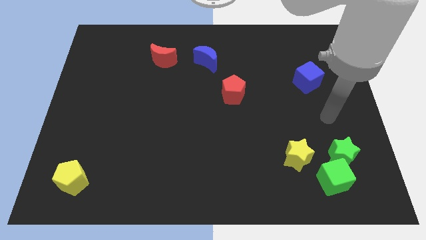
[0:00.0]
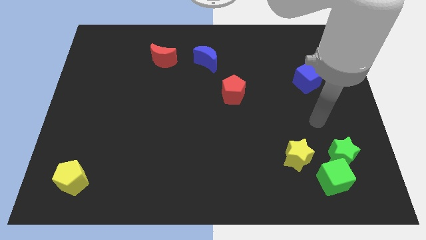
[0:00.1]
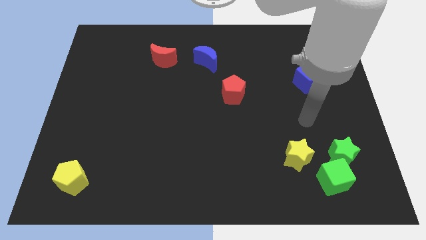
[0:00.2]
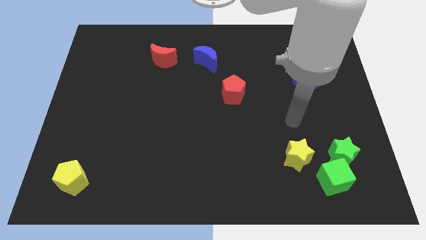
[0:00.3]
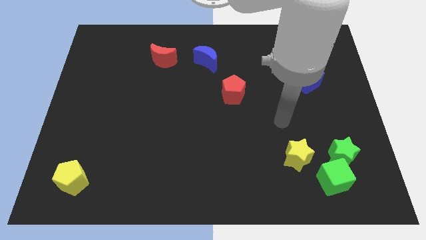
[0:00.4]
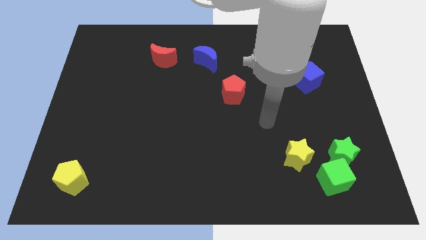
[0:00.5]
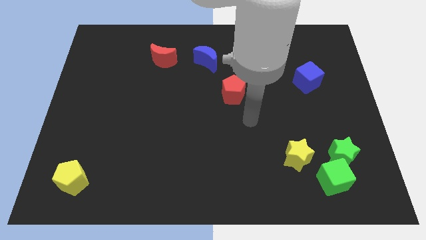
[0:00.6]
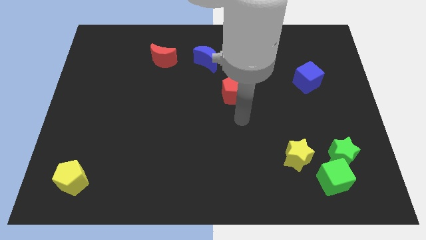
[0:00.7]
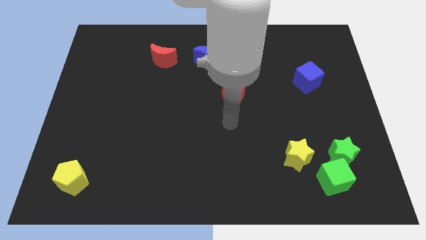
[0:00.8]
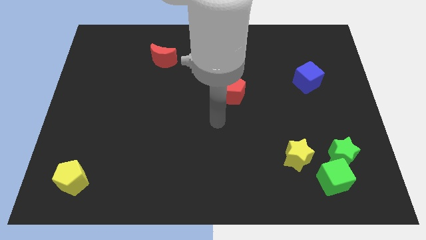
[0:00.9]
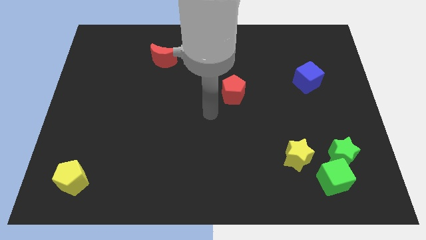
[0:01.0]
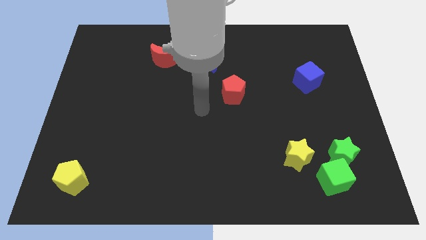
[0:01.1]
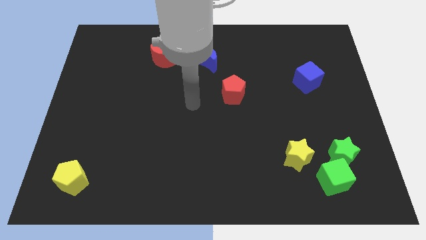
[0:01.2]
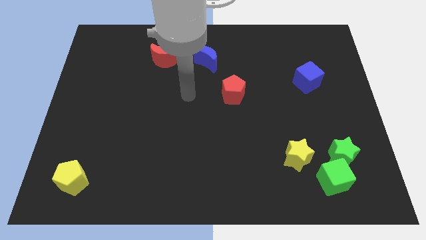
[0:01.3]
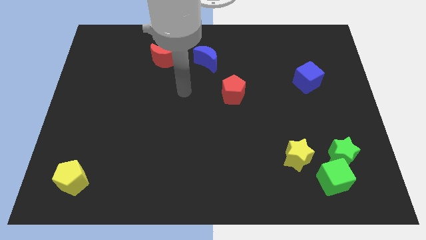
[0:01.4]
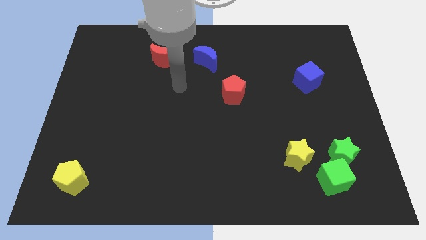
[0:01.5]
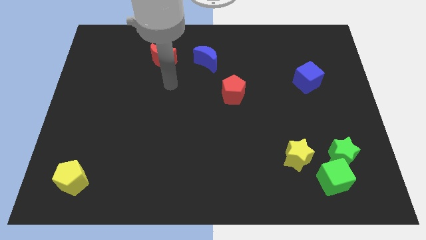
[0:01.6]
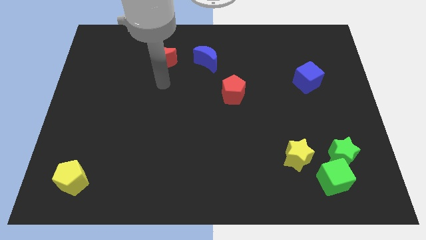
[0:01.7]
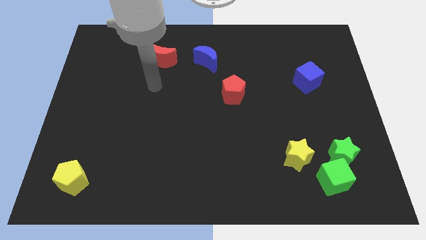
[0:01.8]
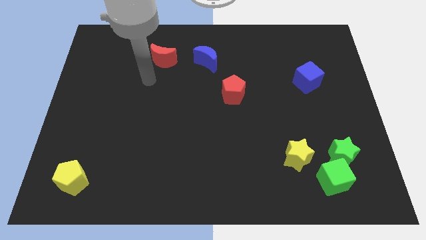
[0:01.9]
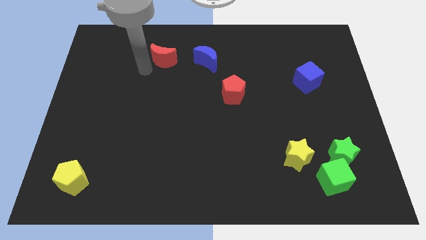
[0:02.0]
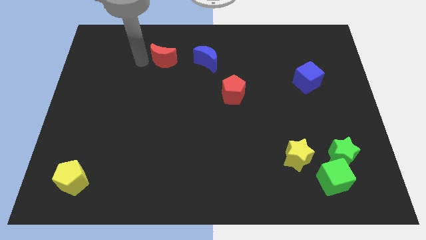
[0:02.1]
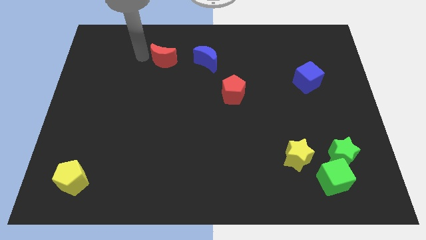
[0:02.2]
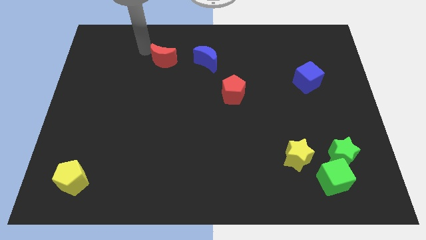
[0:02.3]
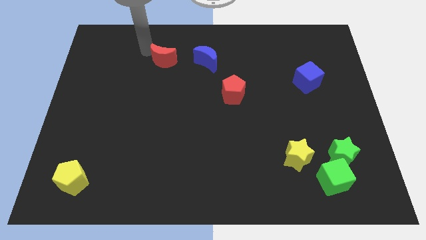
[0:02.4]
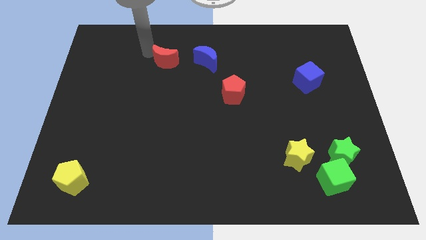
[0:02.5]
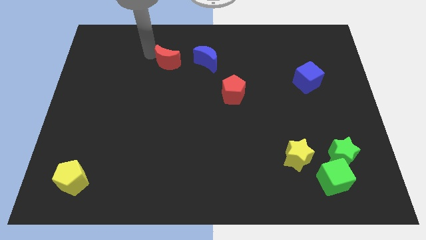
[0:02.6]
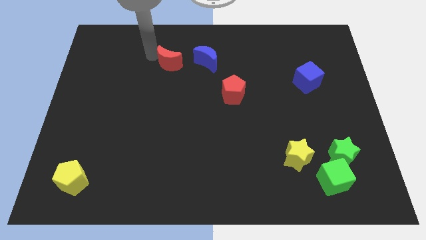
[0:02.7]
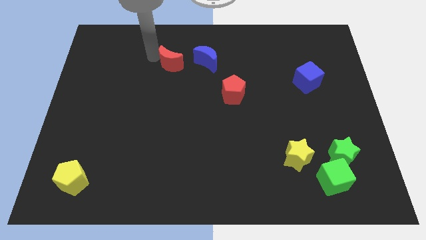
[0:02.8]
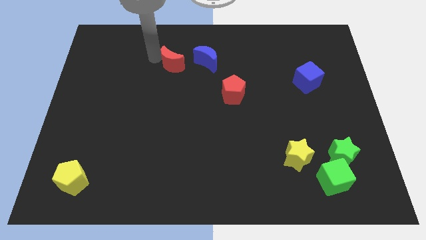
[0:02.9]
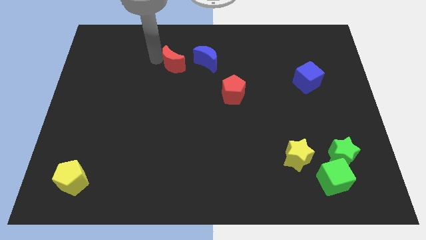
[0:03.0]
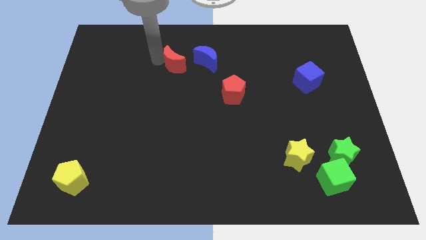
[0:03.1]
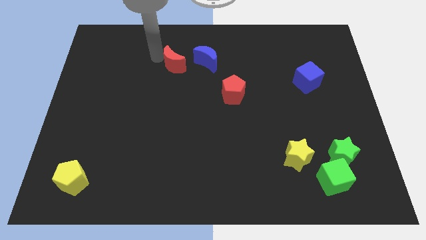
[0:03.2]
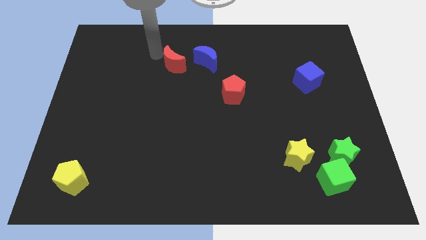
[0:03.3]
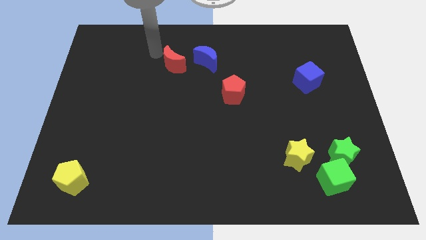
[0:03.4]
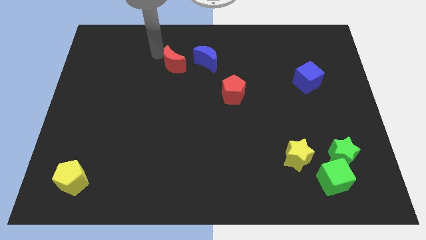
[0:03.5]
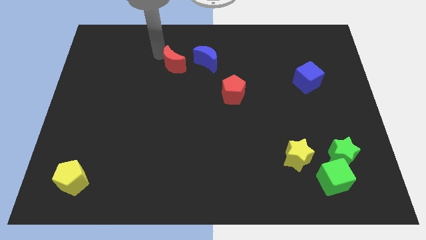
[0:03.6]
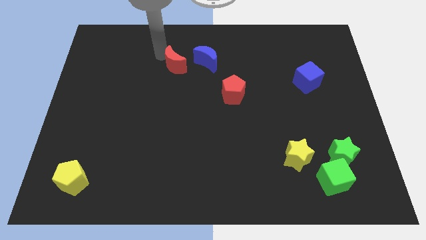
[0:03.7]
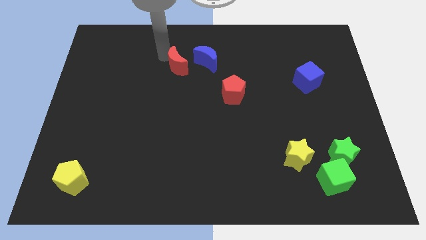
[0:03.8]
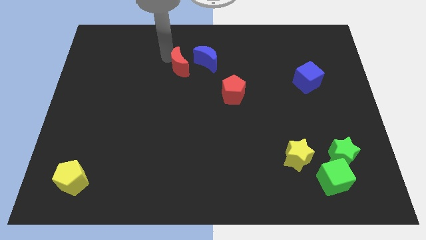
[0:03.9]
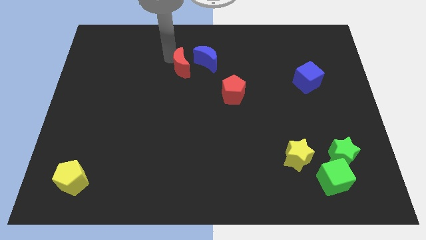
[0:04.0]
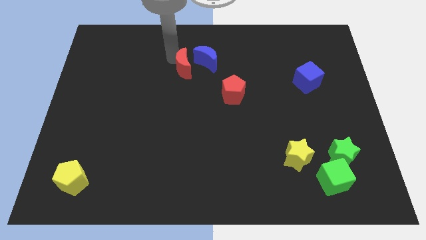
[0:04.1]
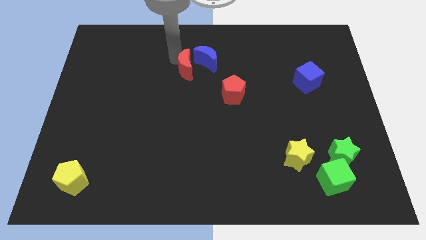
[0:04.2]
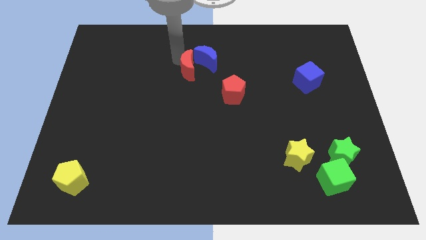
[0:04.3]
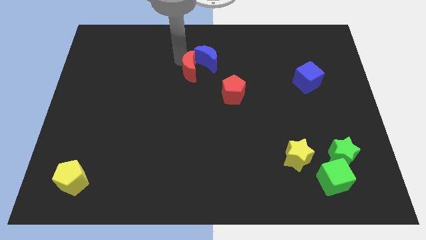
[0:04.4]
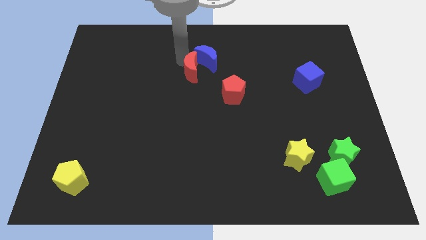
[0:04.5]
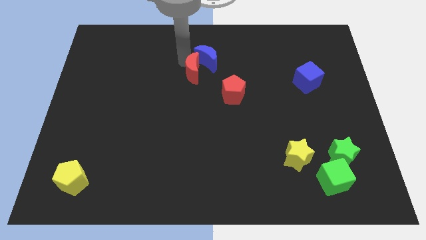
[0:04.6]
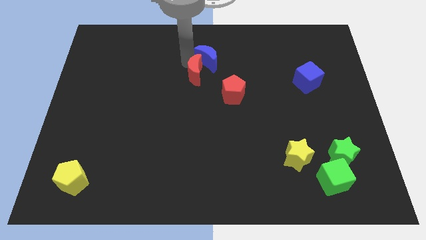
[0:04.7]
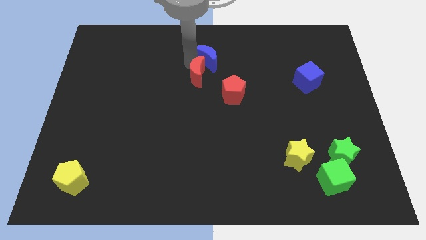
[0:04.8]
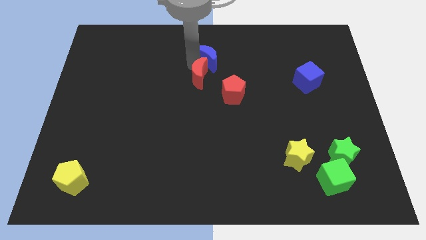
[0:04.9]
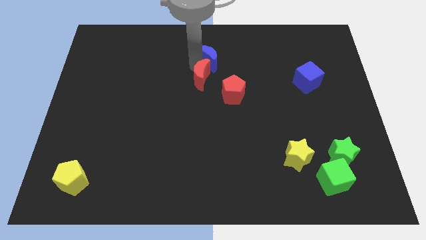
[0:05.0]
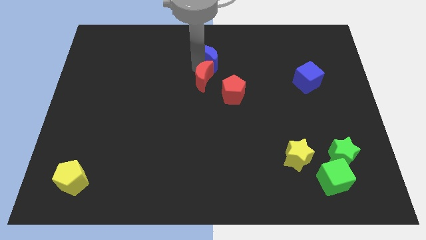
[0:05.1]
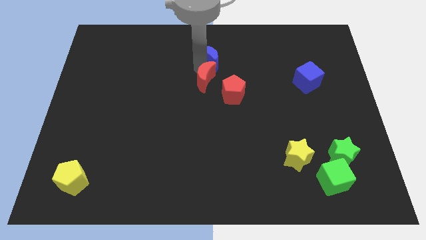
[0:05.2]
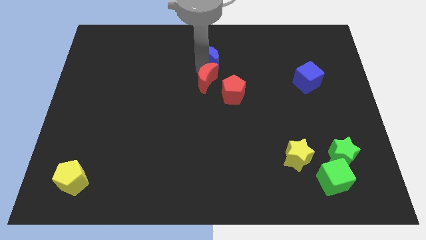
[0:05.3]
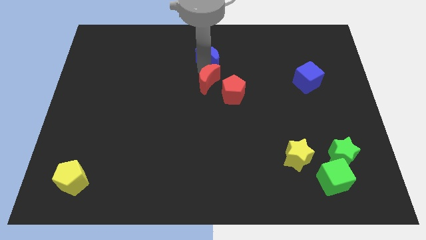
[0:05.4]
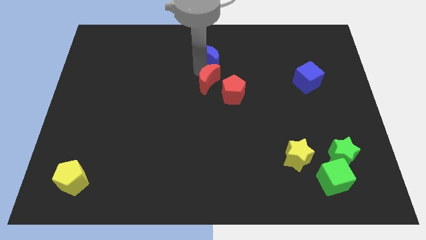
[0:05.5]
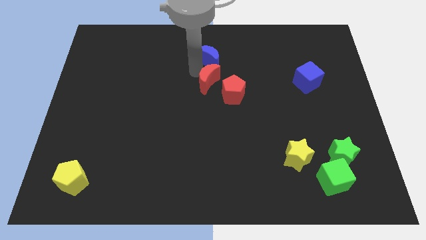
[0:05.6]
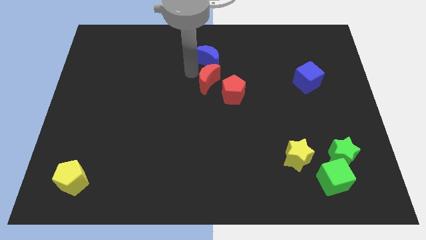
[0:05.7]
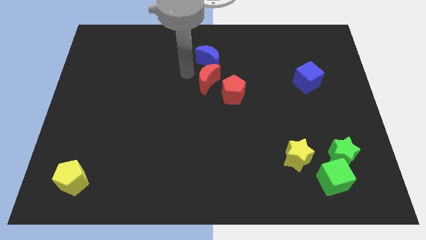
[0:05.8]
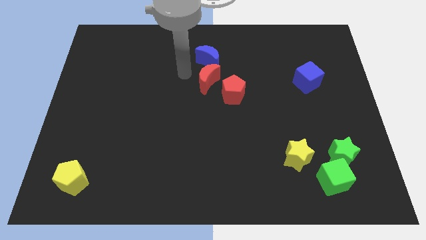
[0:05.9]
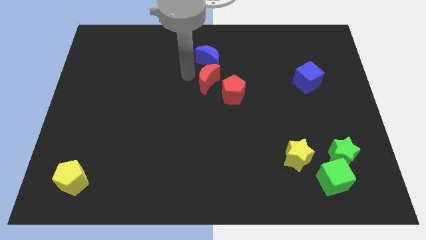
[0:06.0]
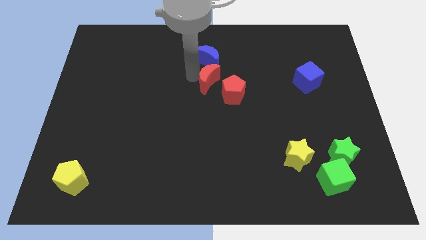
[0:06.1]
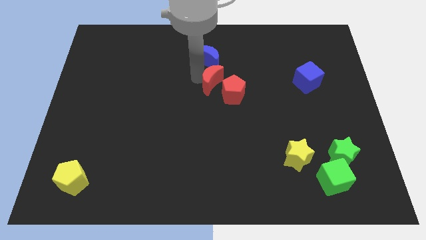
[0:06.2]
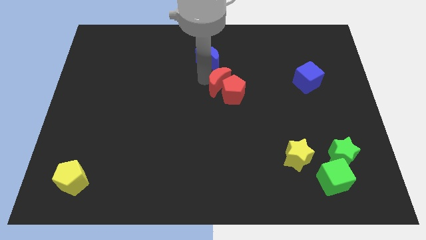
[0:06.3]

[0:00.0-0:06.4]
move the red moon close to the red pentagon

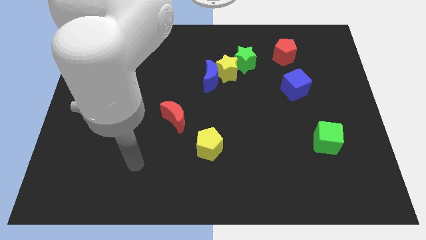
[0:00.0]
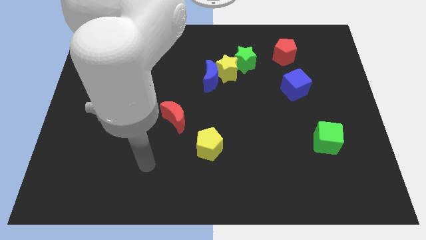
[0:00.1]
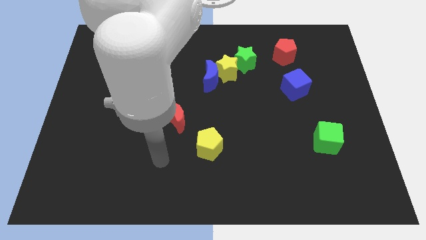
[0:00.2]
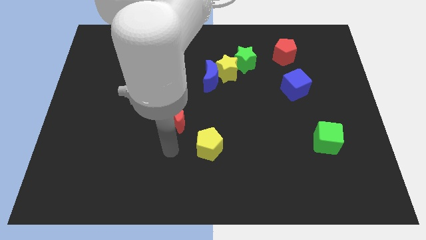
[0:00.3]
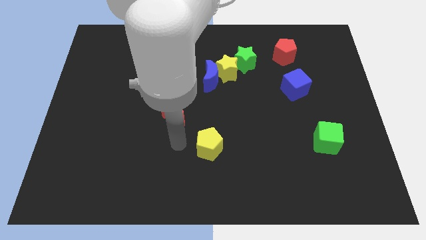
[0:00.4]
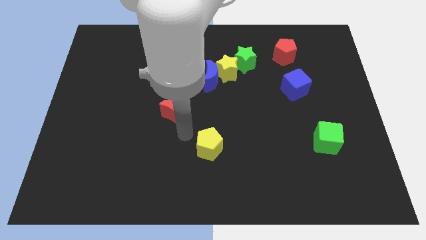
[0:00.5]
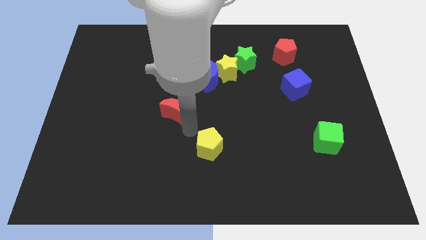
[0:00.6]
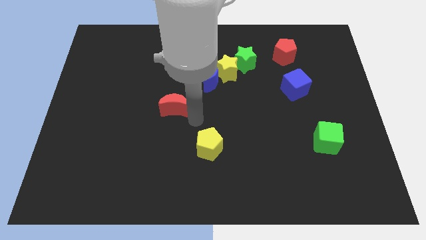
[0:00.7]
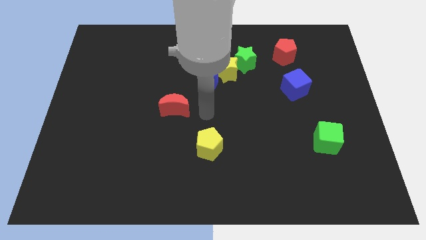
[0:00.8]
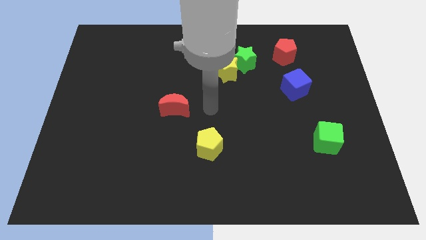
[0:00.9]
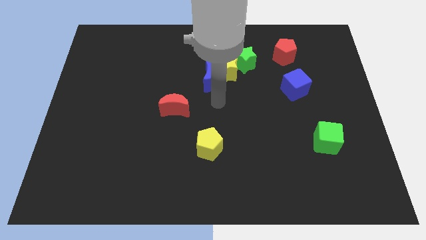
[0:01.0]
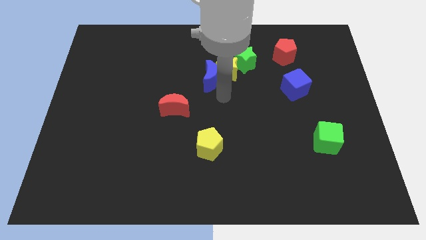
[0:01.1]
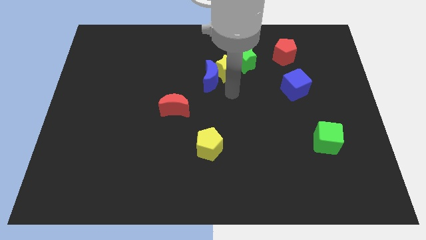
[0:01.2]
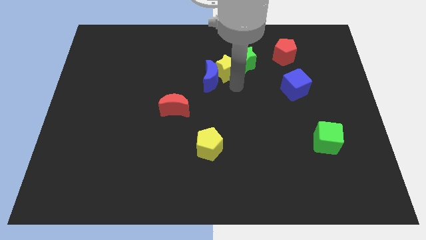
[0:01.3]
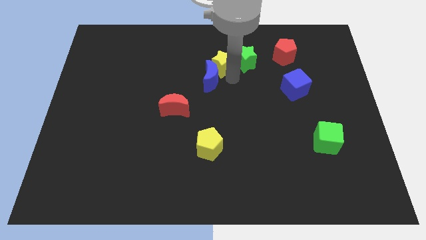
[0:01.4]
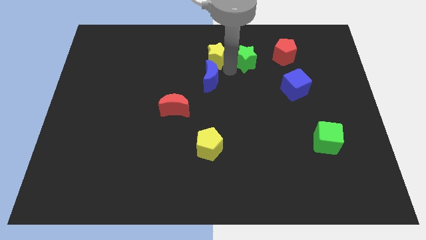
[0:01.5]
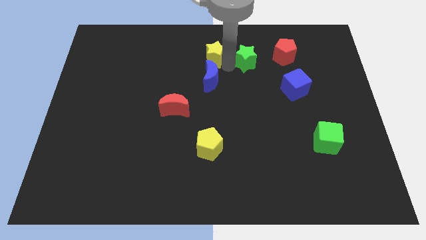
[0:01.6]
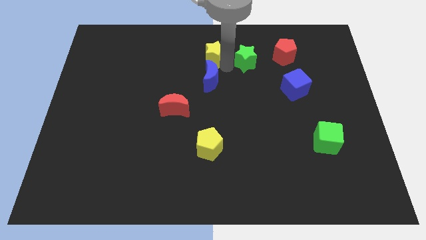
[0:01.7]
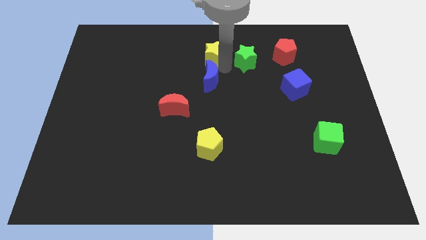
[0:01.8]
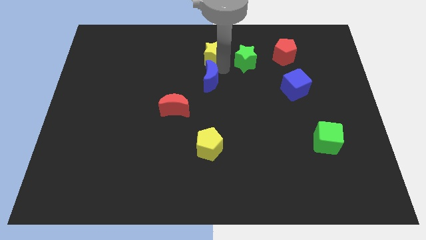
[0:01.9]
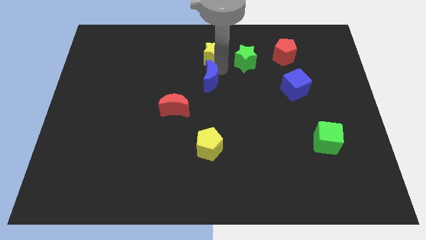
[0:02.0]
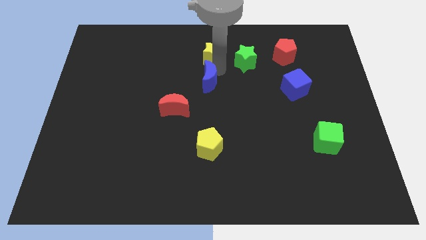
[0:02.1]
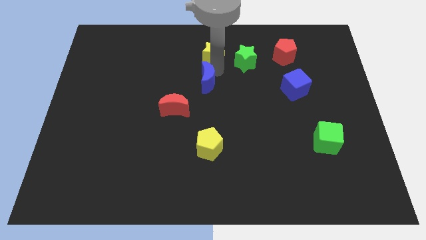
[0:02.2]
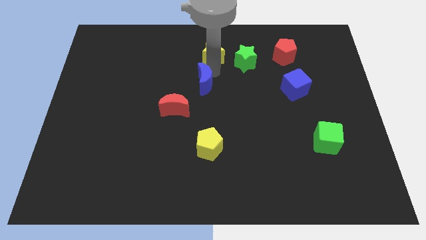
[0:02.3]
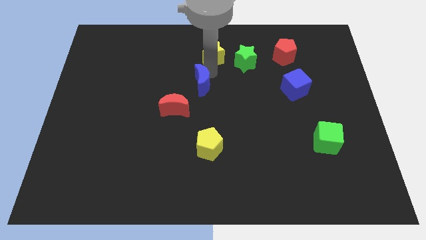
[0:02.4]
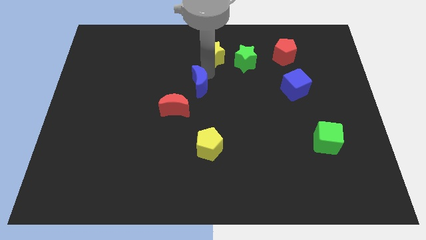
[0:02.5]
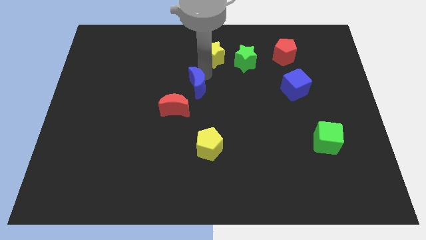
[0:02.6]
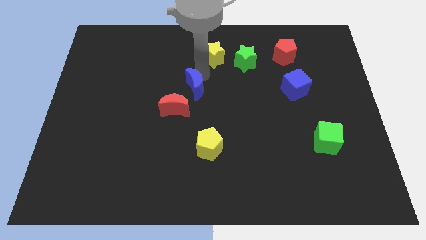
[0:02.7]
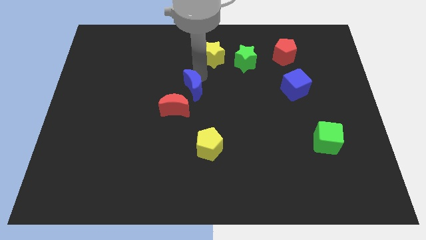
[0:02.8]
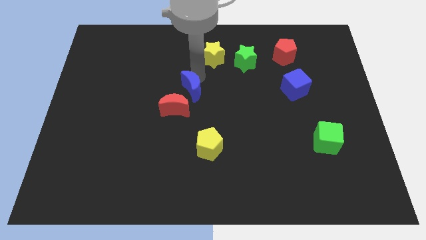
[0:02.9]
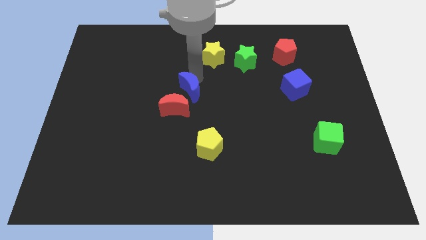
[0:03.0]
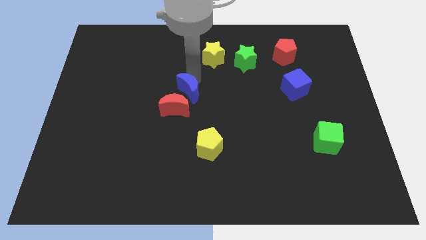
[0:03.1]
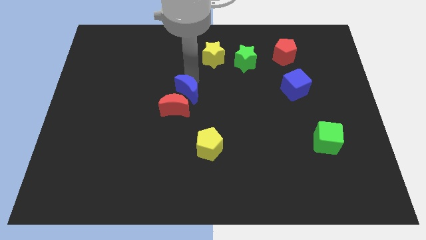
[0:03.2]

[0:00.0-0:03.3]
put the blue moon close to the red moon
